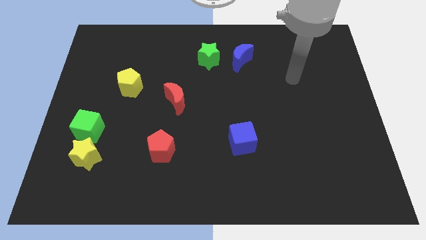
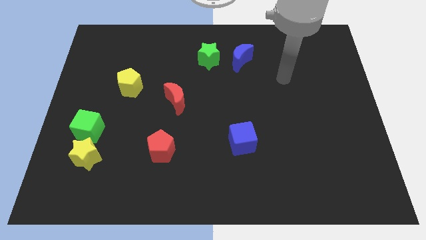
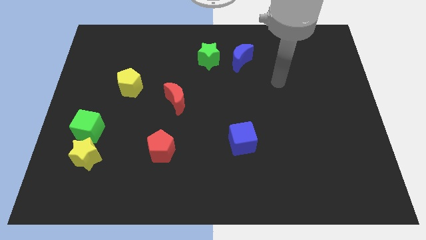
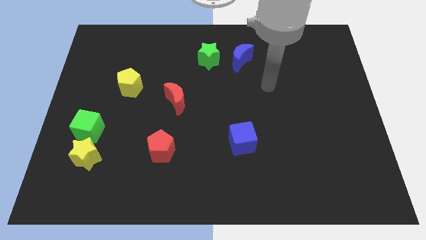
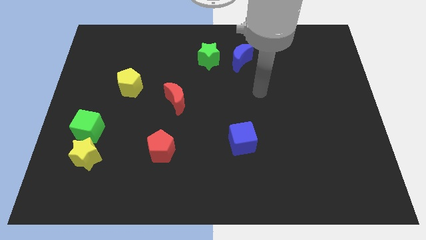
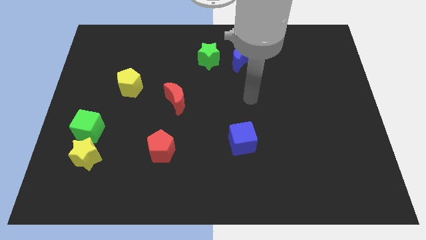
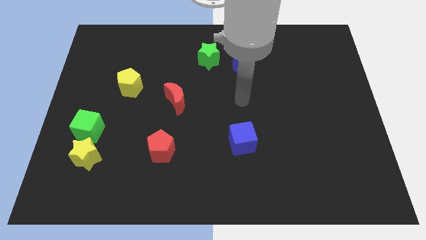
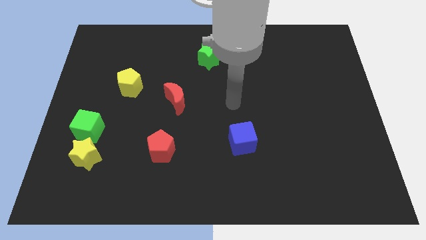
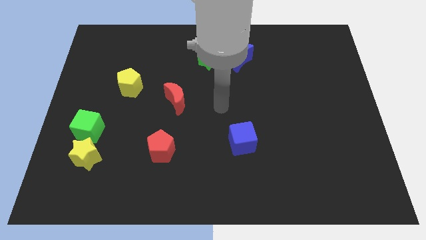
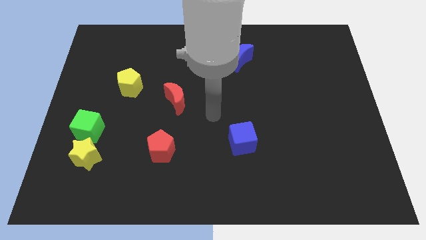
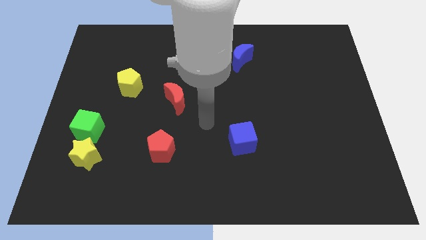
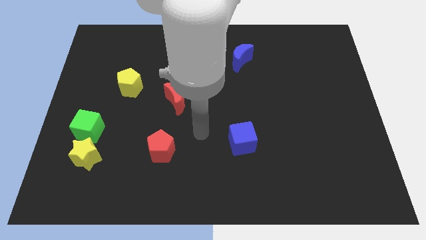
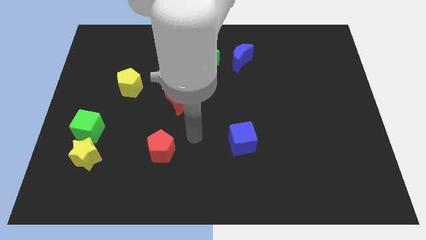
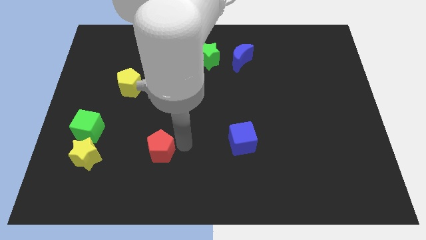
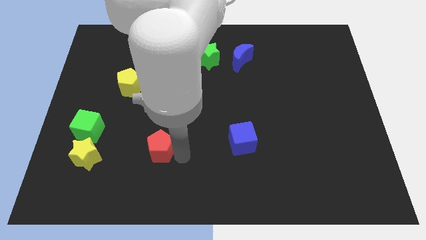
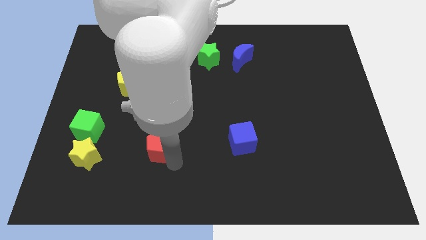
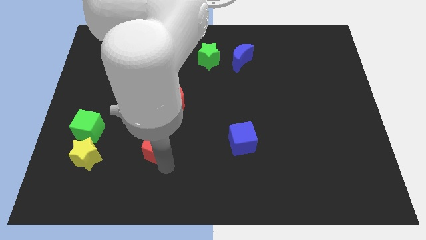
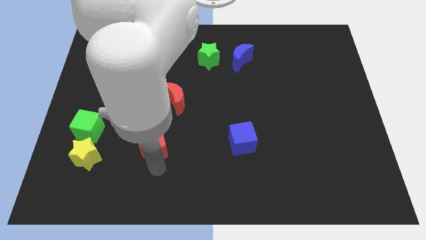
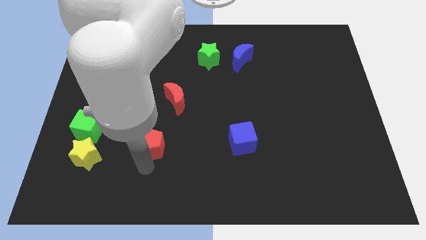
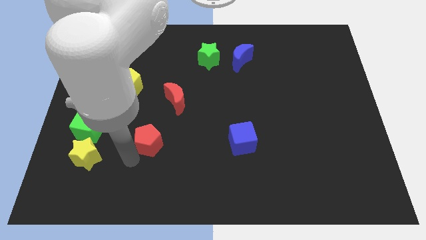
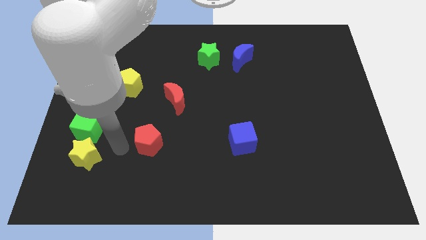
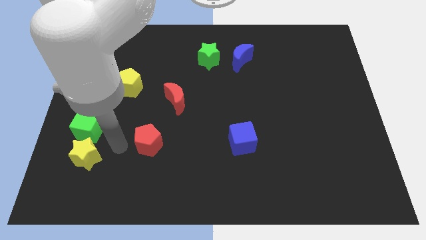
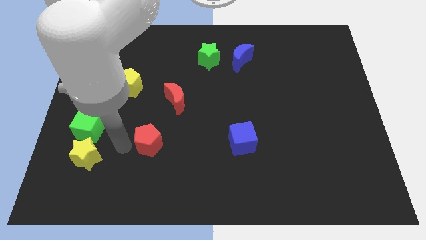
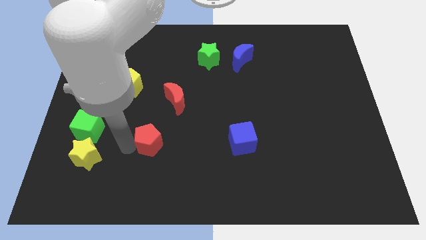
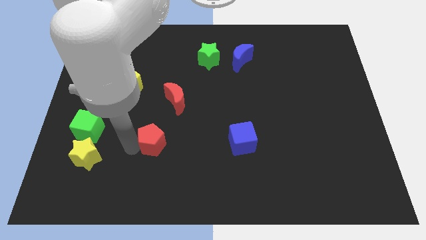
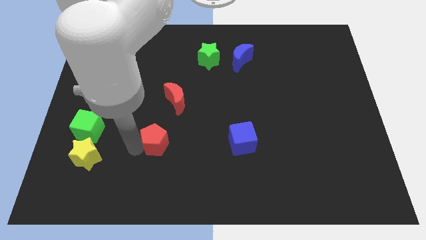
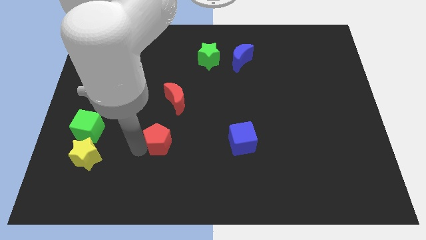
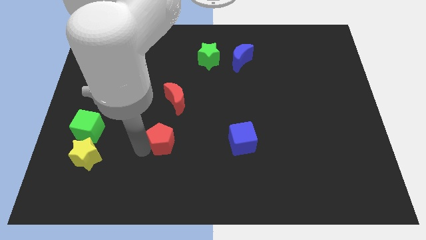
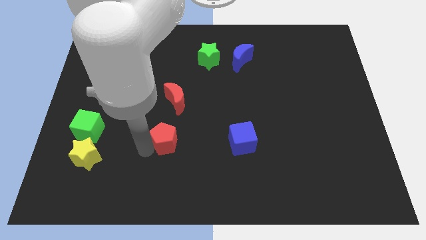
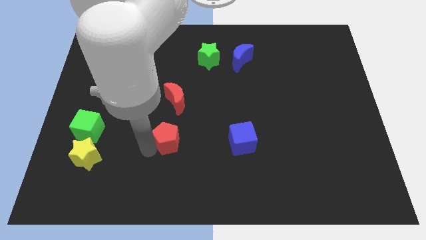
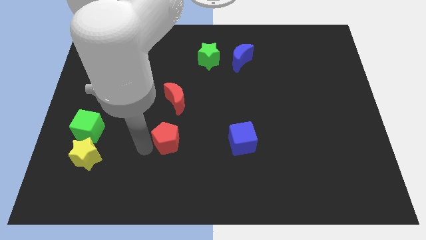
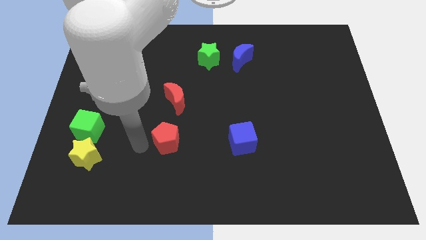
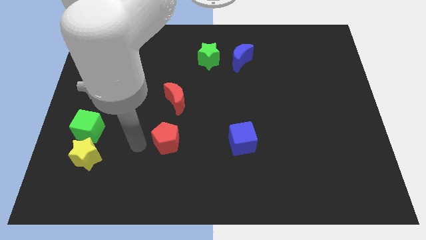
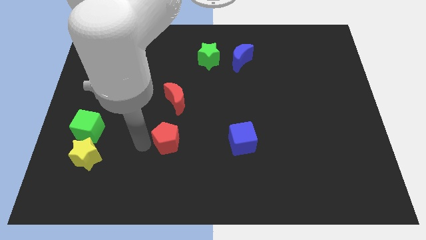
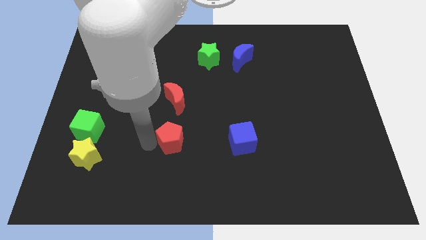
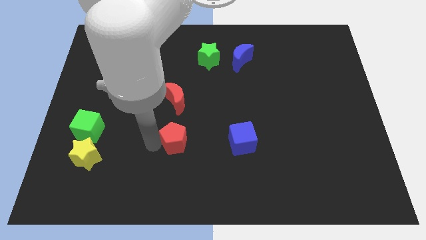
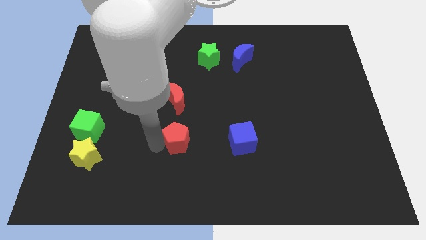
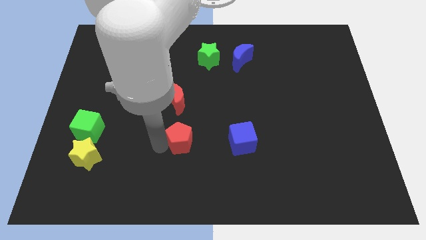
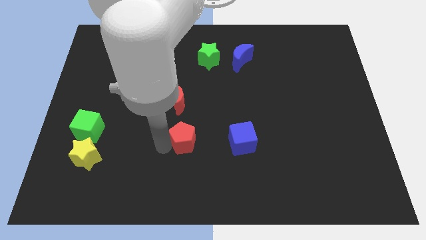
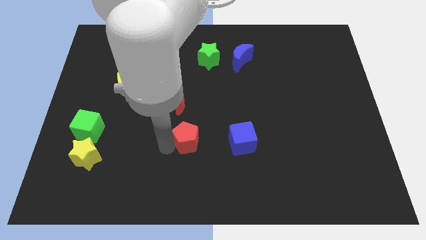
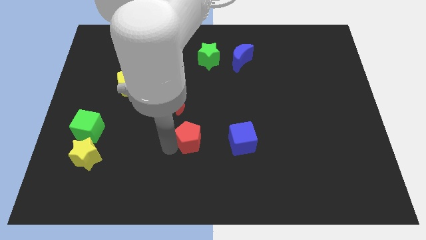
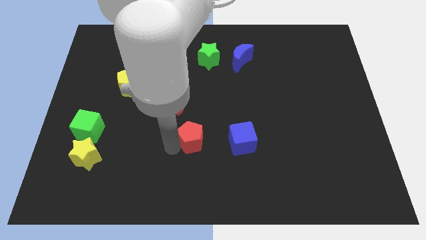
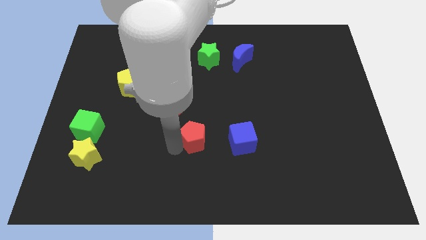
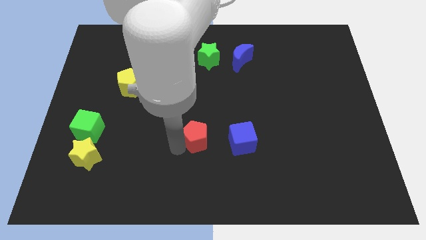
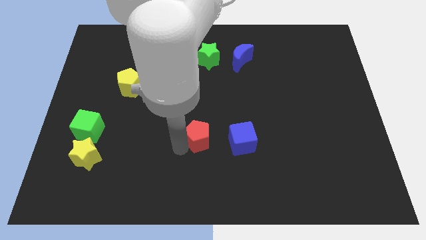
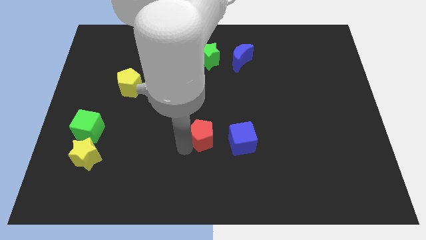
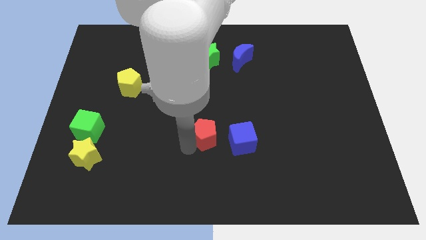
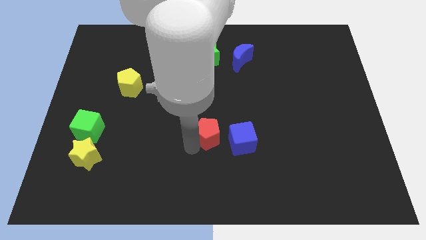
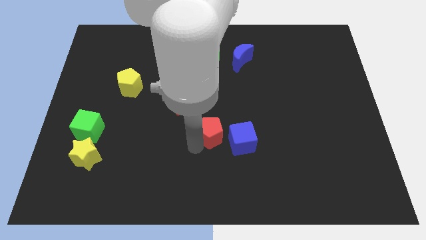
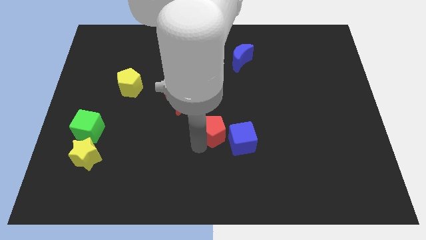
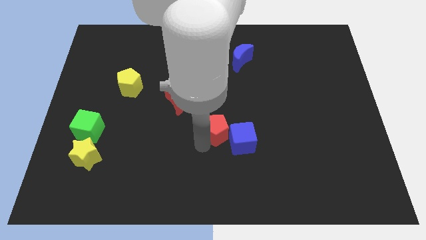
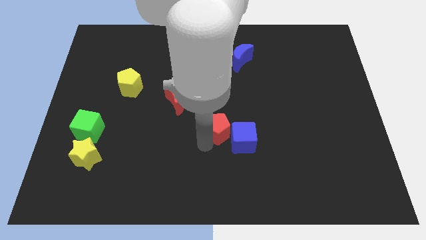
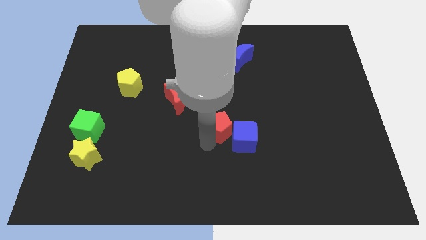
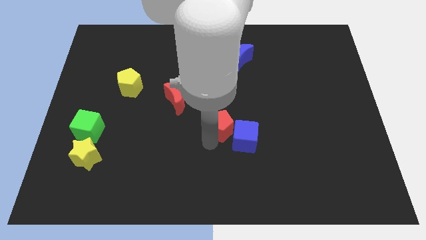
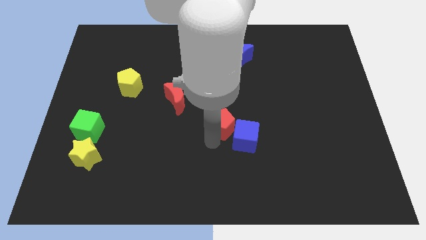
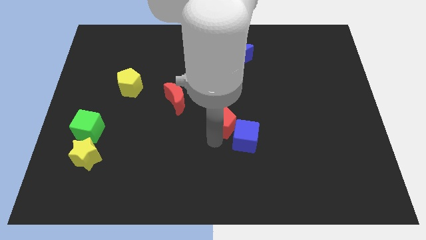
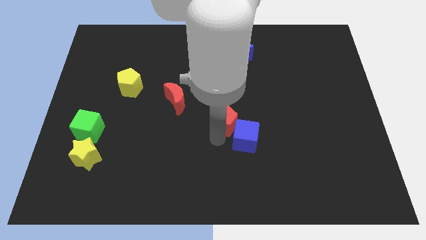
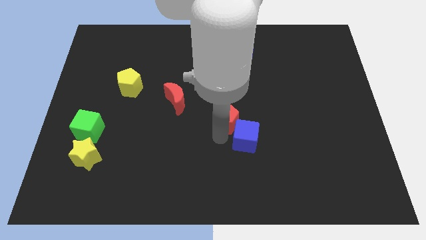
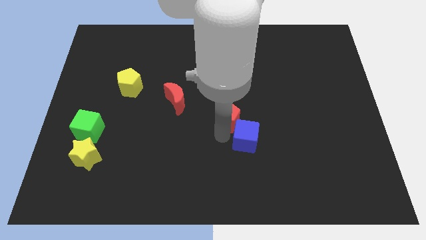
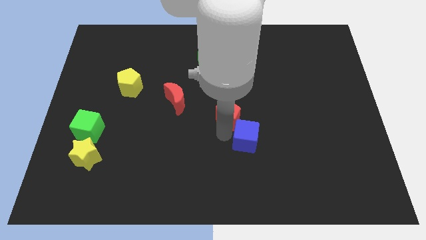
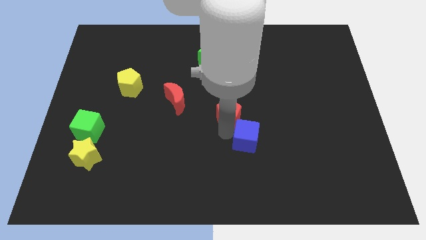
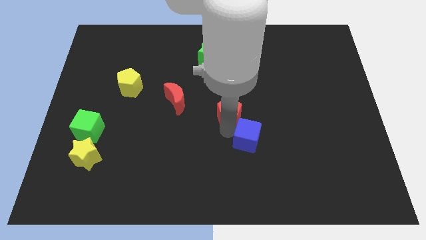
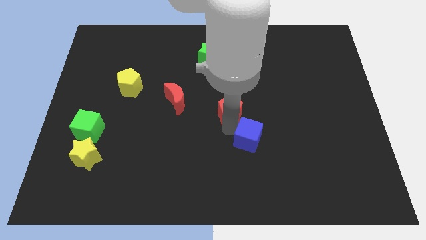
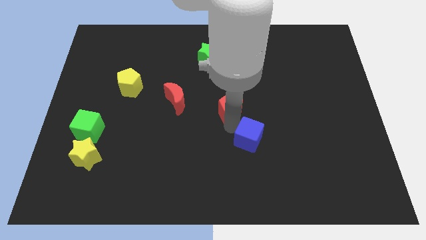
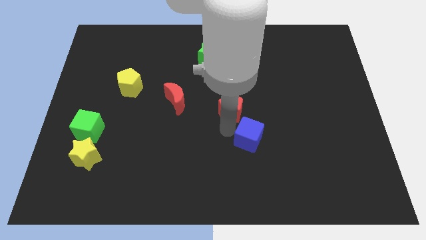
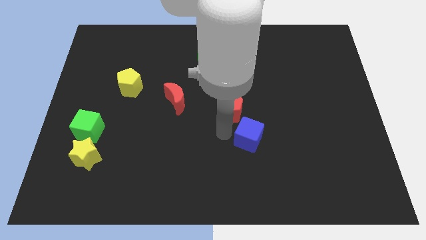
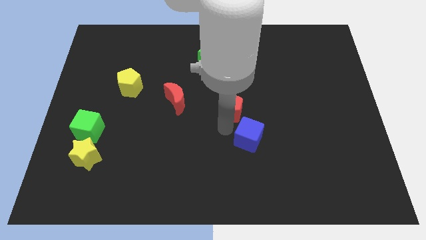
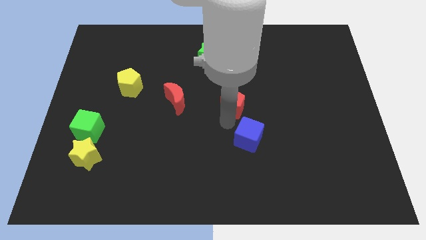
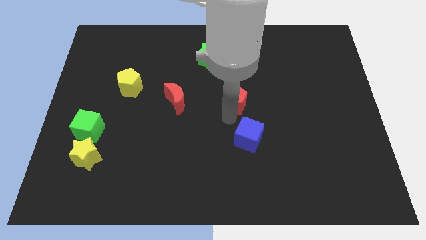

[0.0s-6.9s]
move the red pentagon upwards and to the right diagonally

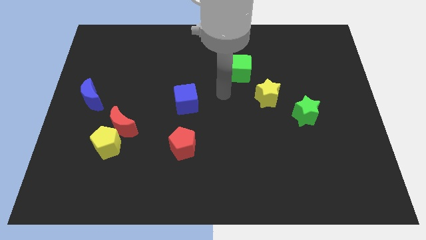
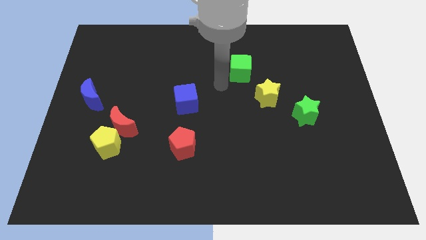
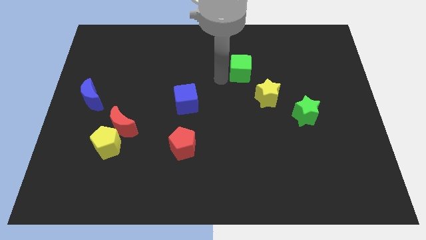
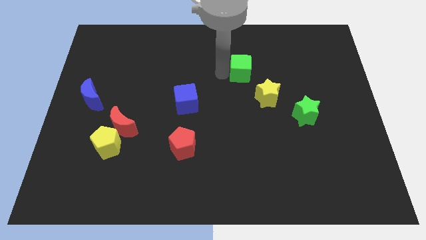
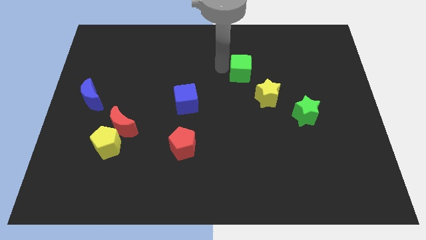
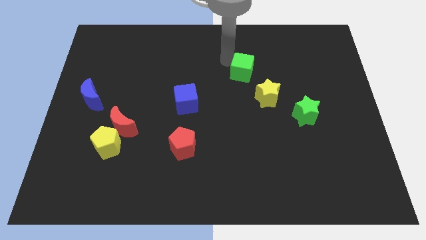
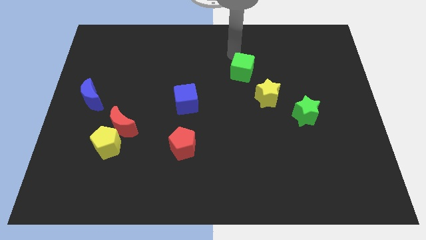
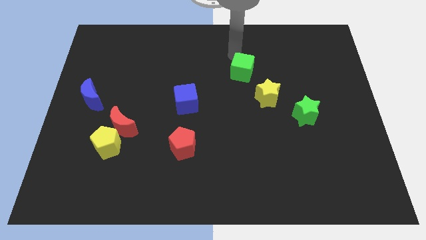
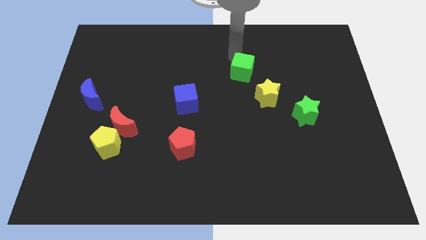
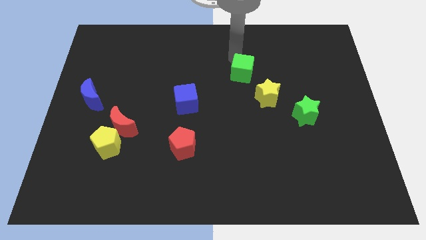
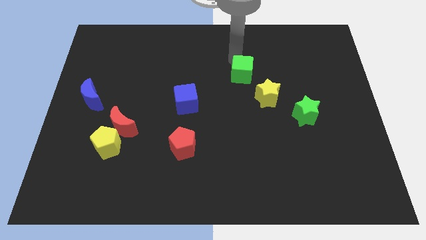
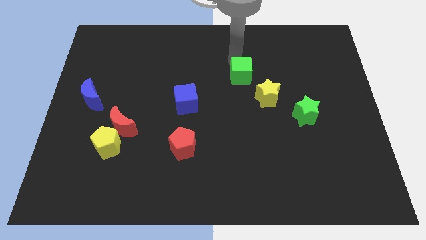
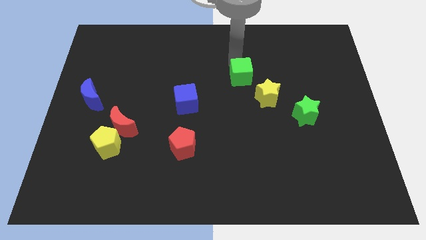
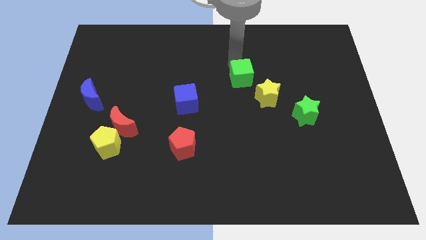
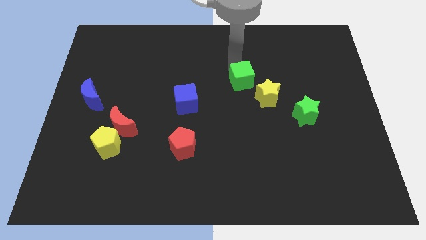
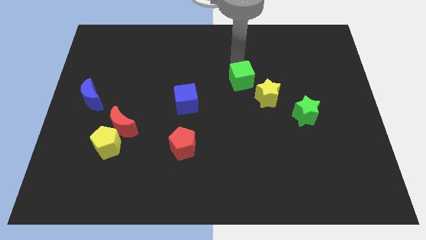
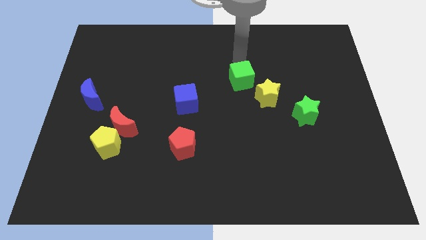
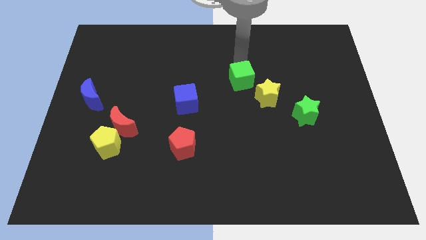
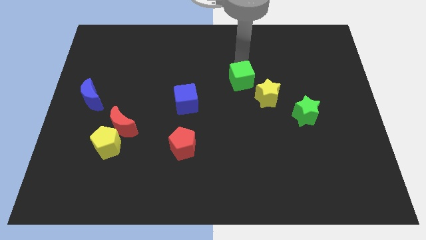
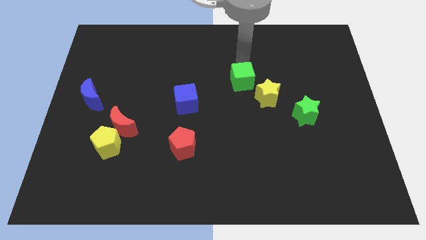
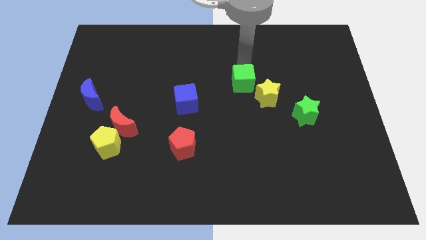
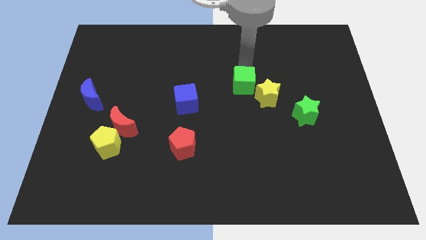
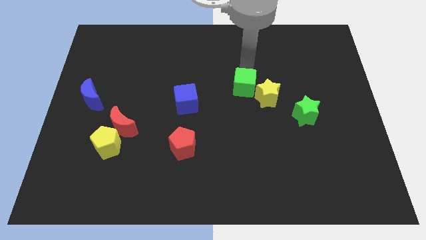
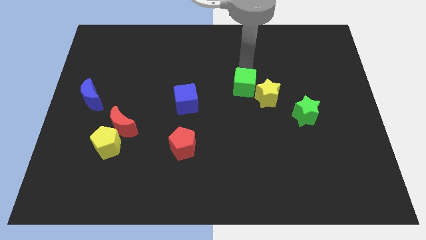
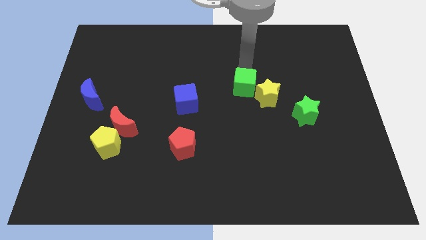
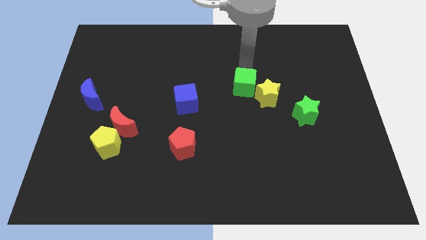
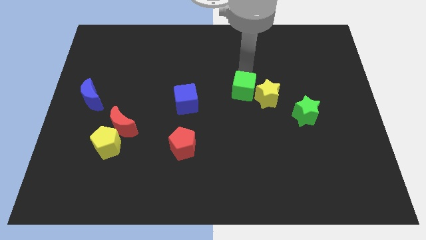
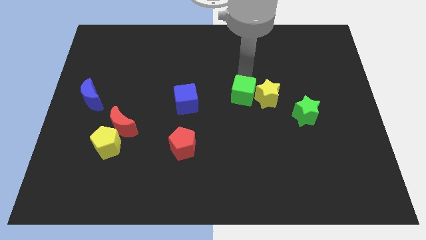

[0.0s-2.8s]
push the green cube down somewhat
